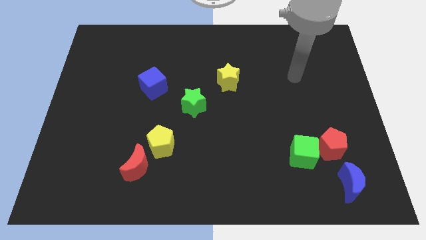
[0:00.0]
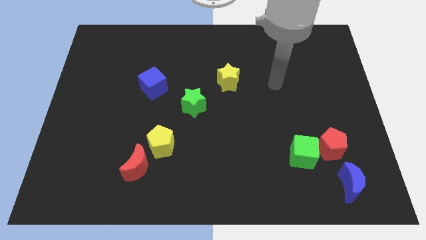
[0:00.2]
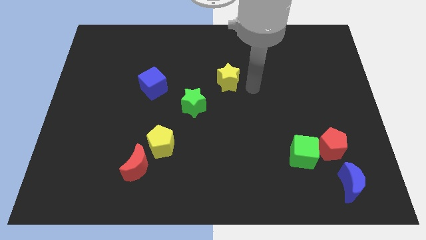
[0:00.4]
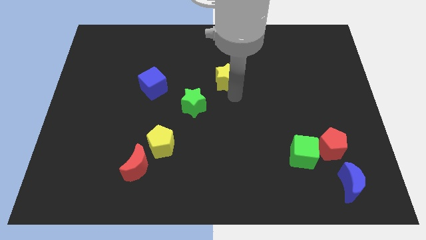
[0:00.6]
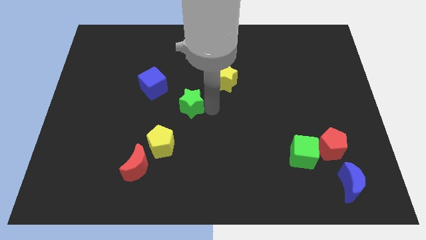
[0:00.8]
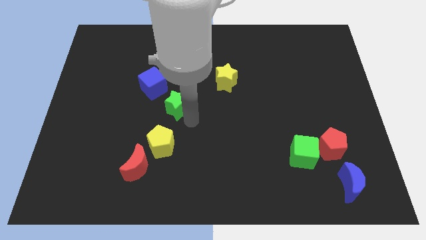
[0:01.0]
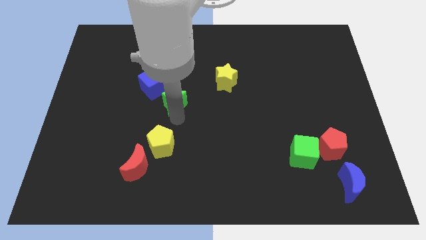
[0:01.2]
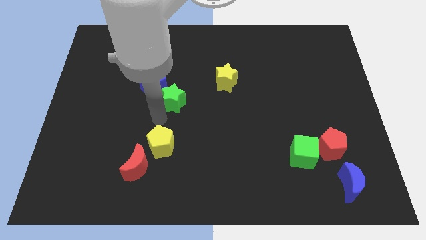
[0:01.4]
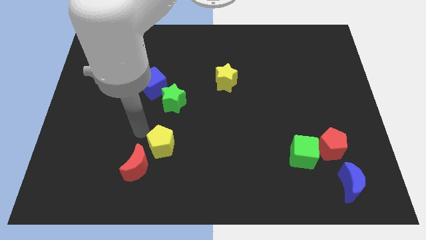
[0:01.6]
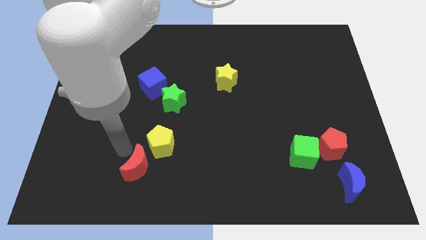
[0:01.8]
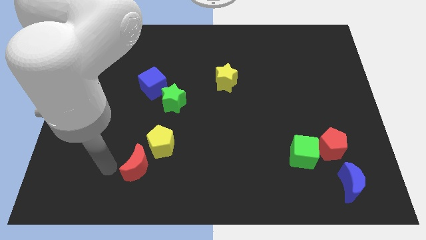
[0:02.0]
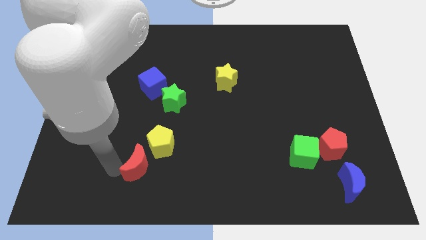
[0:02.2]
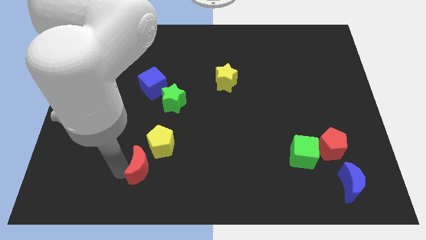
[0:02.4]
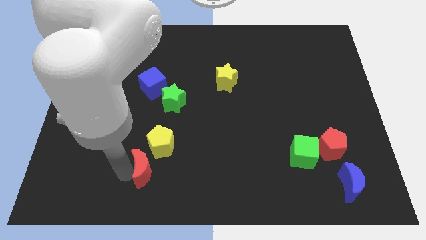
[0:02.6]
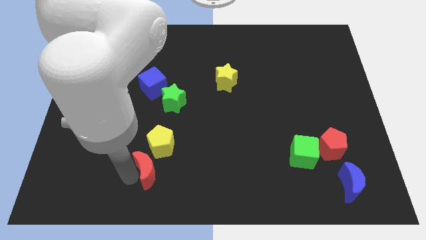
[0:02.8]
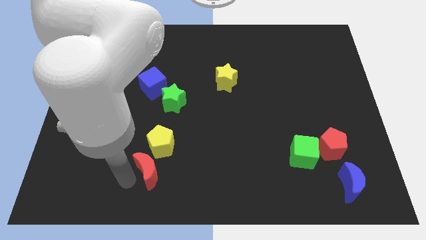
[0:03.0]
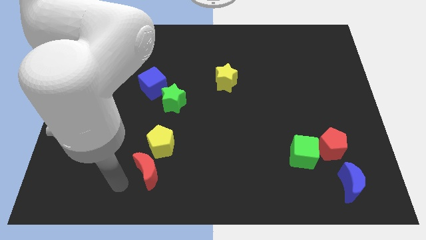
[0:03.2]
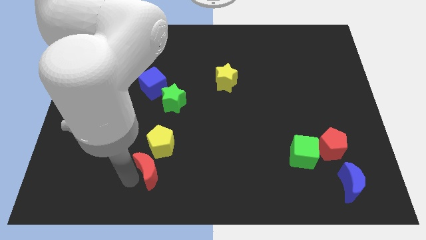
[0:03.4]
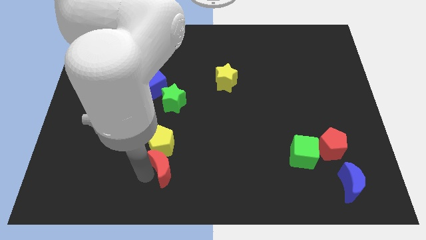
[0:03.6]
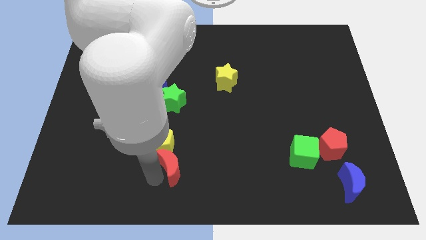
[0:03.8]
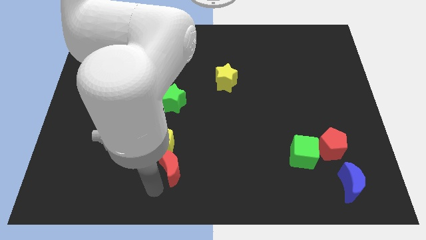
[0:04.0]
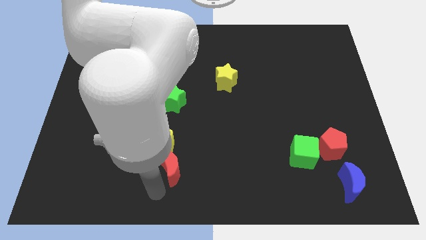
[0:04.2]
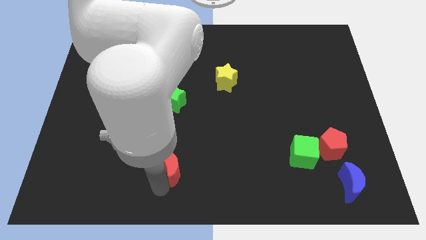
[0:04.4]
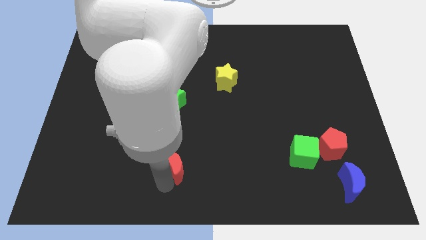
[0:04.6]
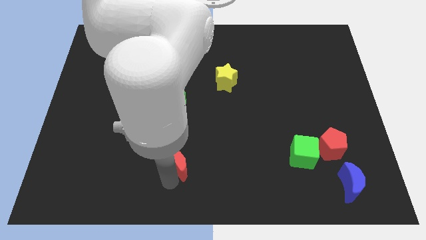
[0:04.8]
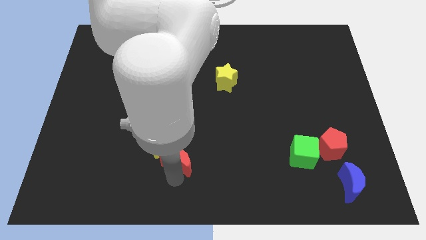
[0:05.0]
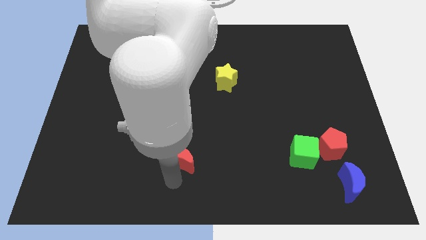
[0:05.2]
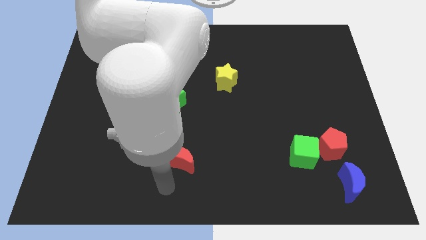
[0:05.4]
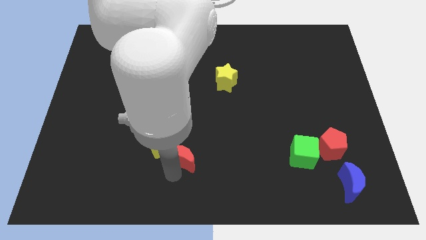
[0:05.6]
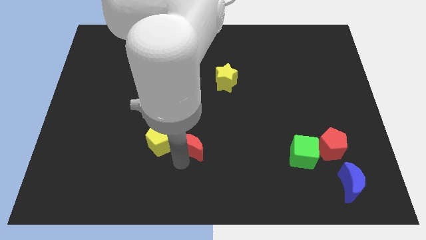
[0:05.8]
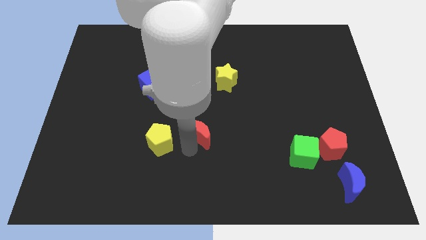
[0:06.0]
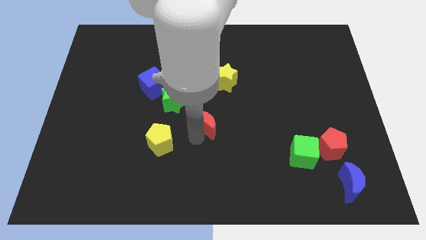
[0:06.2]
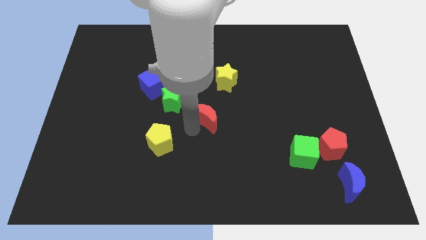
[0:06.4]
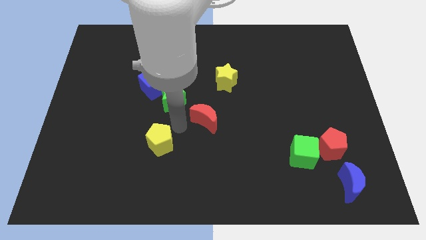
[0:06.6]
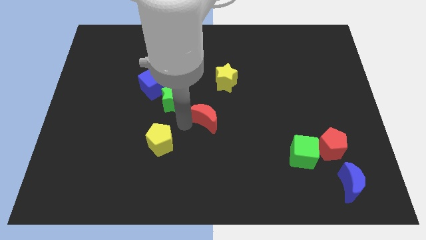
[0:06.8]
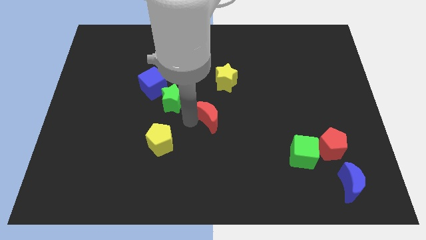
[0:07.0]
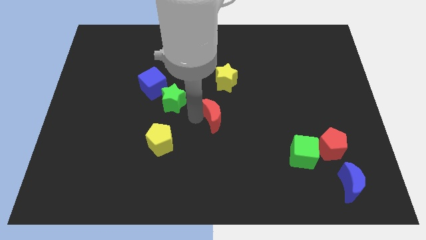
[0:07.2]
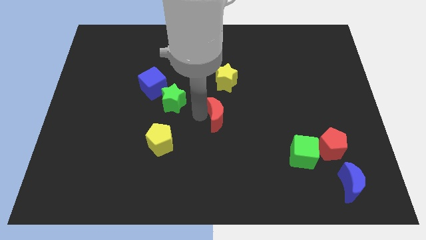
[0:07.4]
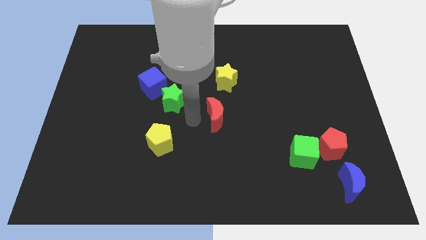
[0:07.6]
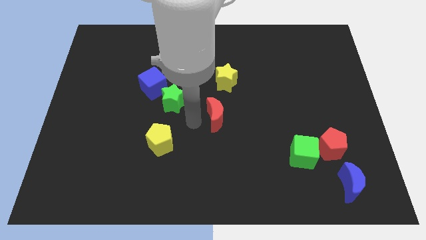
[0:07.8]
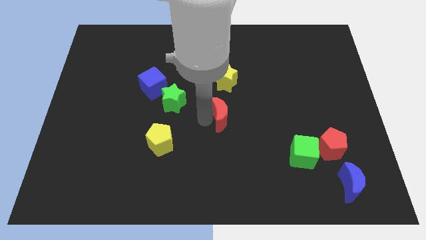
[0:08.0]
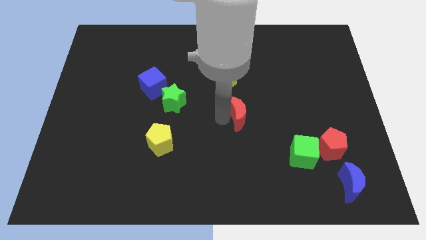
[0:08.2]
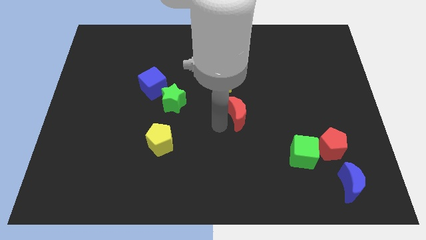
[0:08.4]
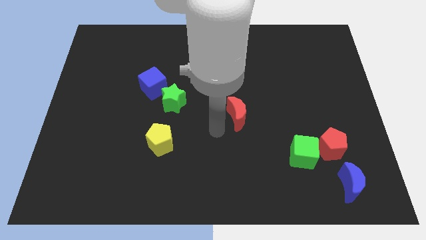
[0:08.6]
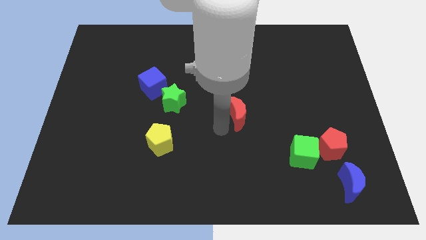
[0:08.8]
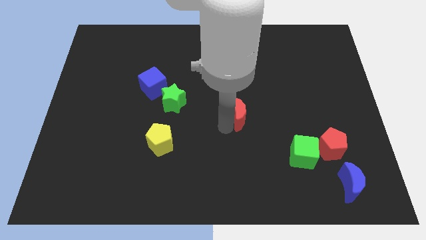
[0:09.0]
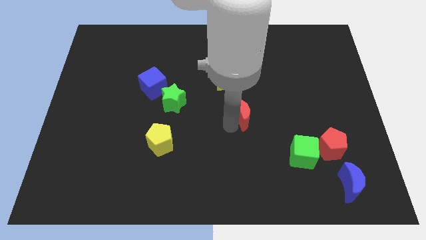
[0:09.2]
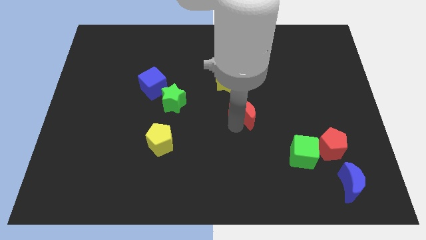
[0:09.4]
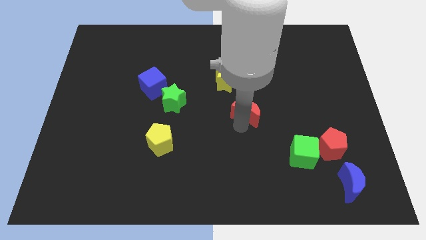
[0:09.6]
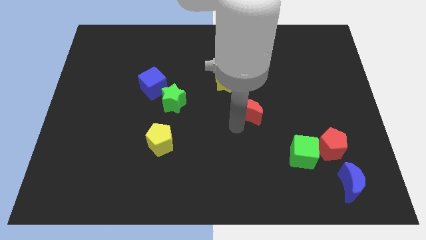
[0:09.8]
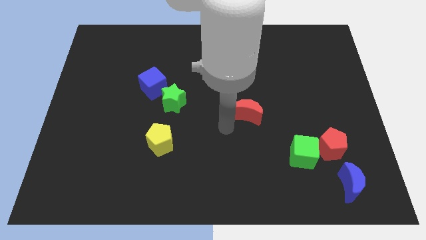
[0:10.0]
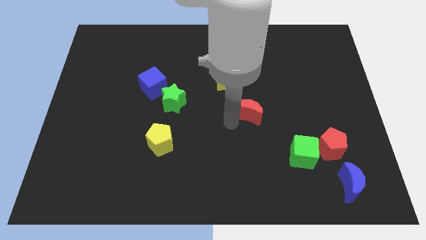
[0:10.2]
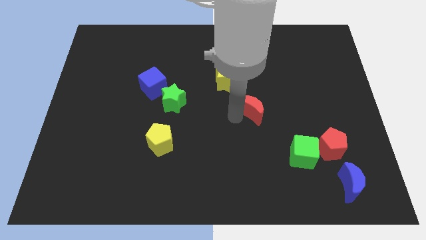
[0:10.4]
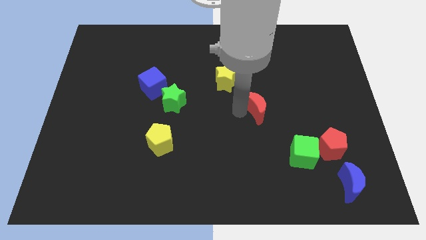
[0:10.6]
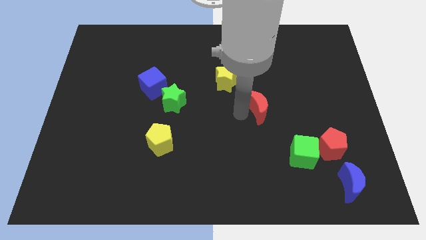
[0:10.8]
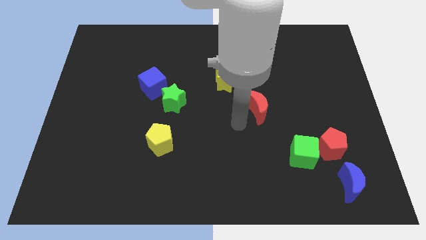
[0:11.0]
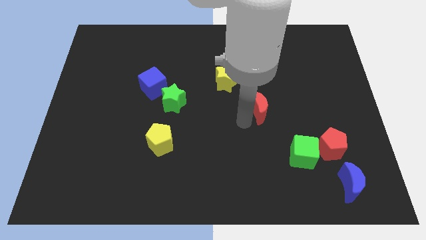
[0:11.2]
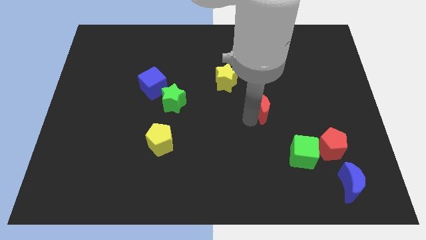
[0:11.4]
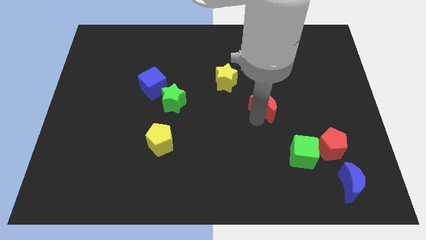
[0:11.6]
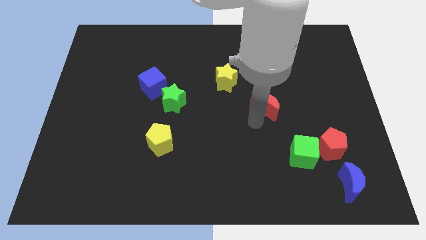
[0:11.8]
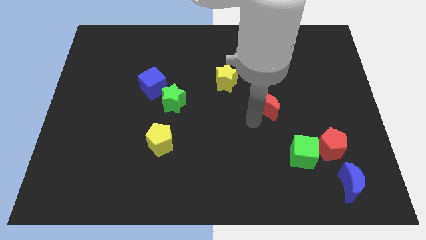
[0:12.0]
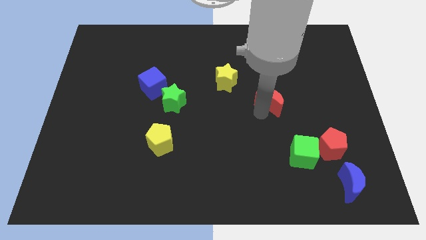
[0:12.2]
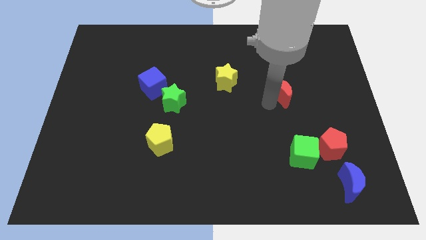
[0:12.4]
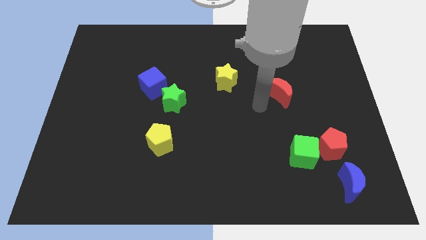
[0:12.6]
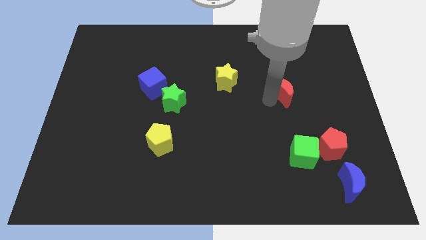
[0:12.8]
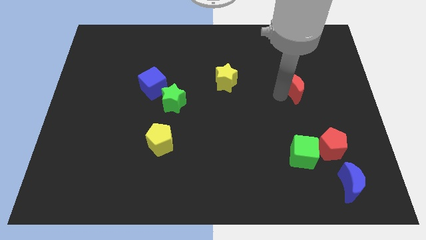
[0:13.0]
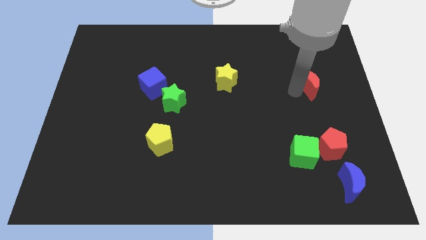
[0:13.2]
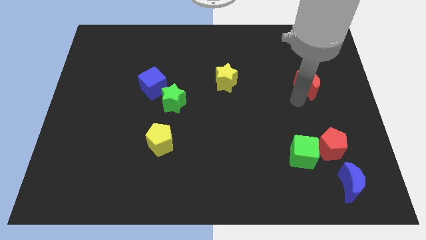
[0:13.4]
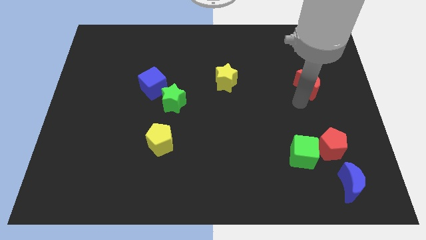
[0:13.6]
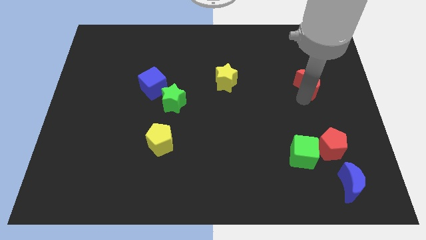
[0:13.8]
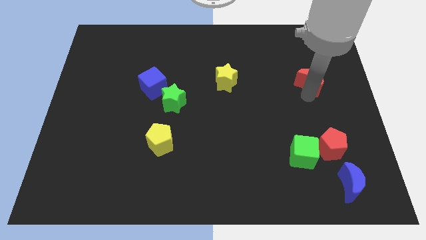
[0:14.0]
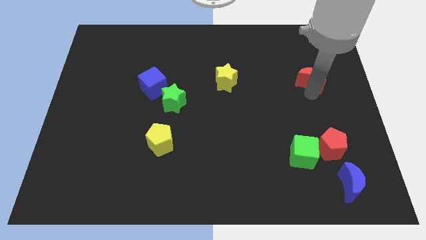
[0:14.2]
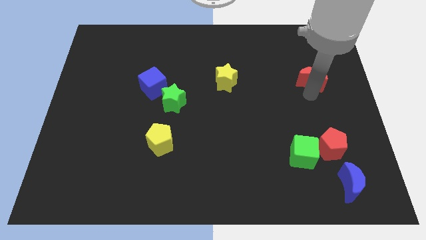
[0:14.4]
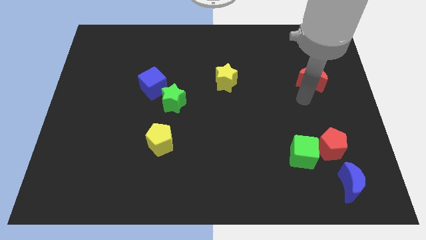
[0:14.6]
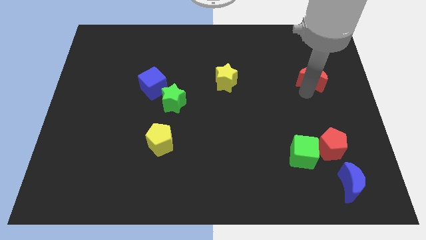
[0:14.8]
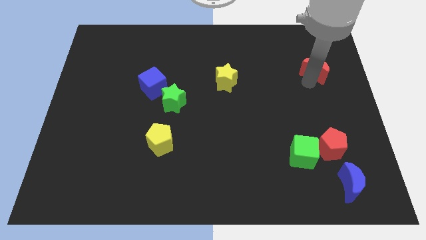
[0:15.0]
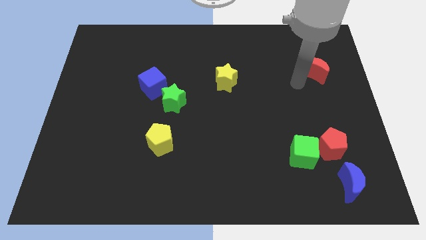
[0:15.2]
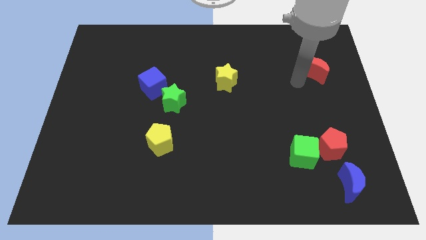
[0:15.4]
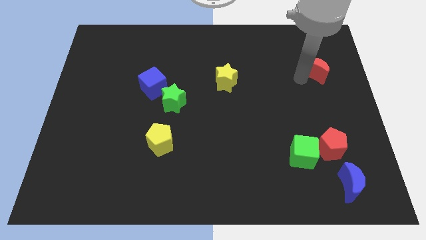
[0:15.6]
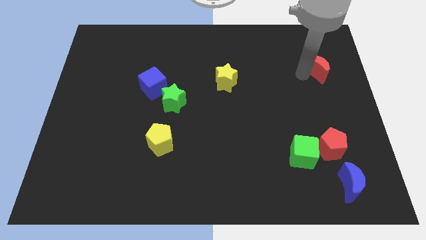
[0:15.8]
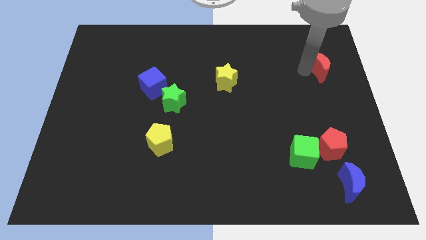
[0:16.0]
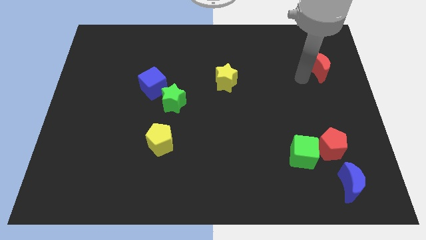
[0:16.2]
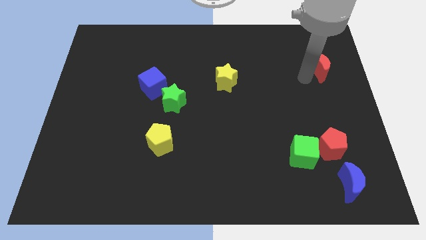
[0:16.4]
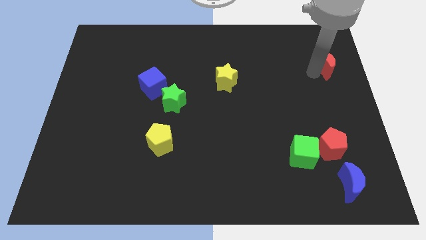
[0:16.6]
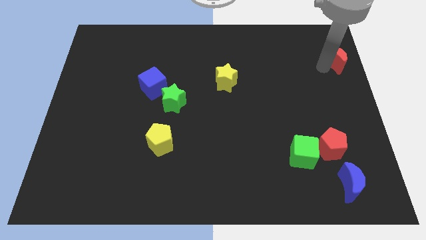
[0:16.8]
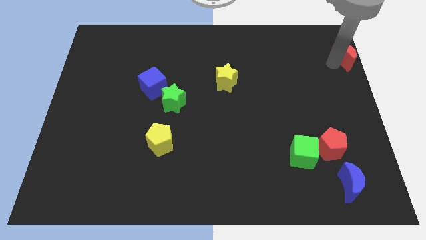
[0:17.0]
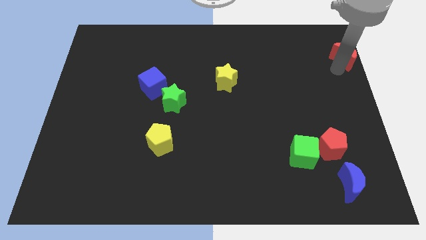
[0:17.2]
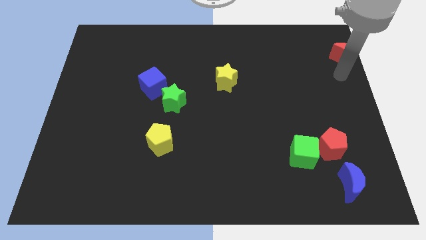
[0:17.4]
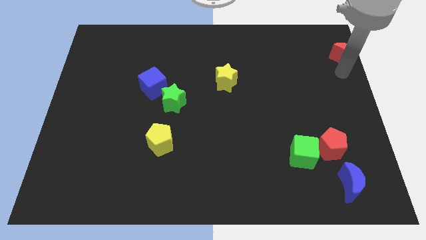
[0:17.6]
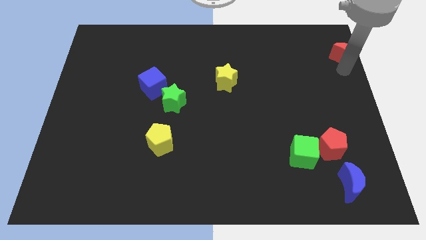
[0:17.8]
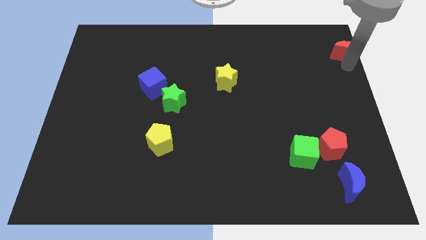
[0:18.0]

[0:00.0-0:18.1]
slide the red moon to the top right corner
